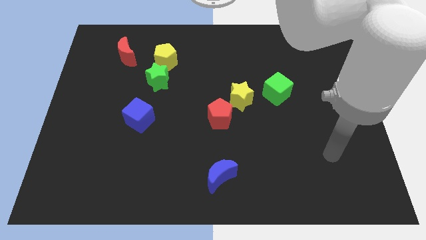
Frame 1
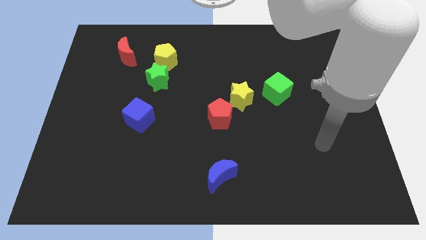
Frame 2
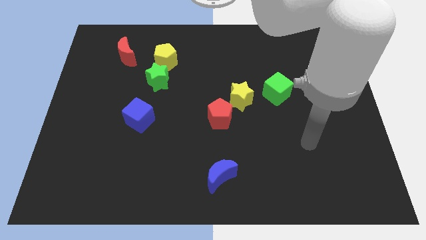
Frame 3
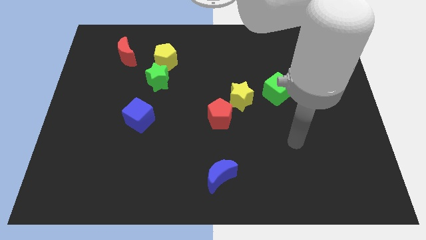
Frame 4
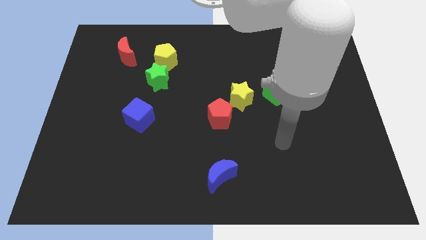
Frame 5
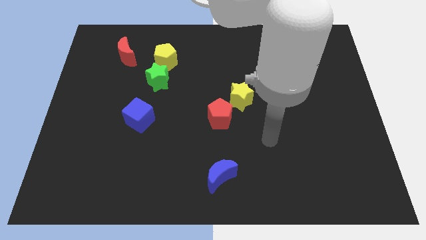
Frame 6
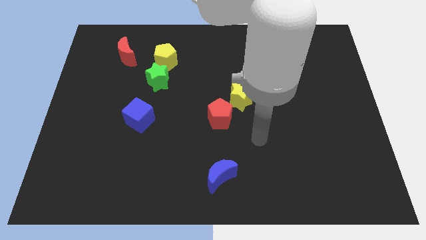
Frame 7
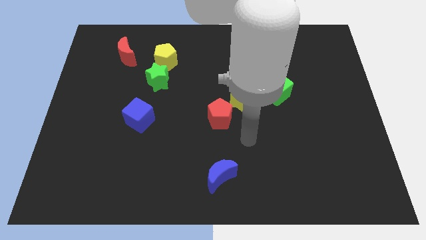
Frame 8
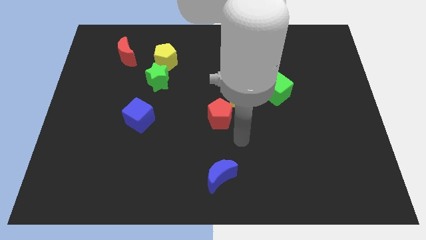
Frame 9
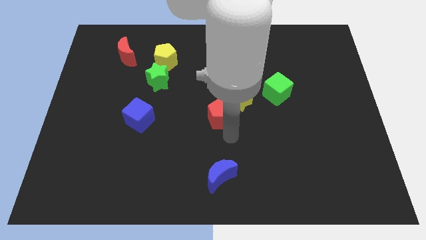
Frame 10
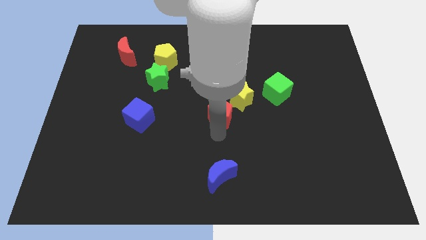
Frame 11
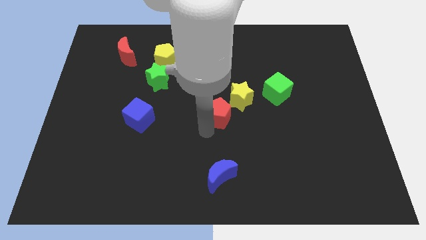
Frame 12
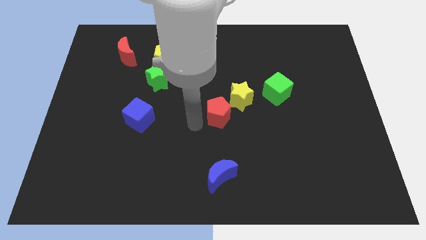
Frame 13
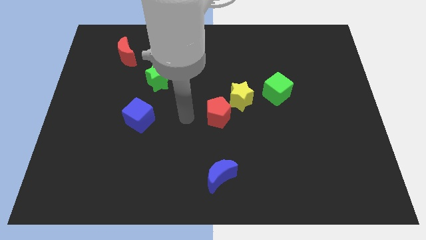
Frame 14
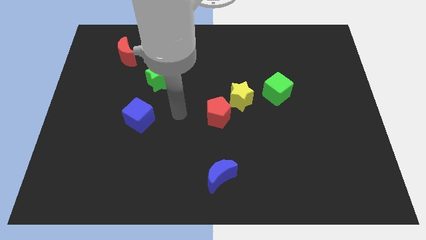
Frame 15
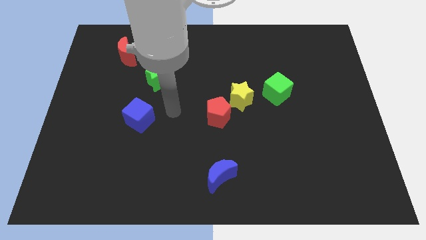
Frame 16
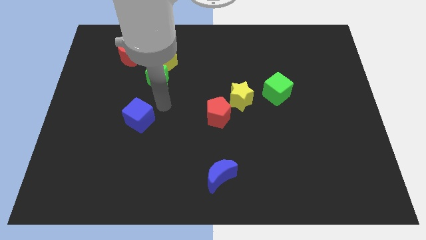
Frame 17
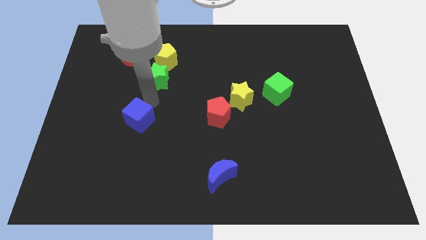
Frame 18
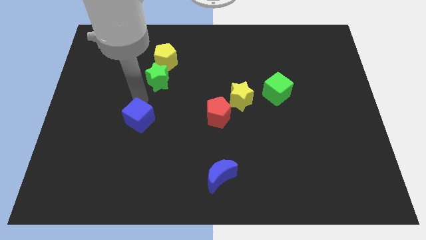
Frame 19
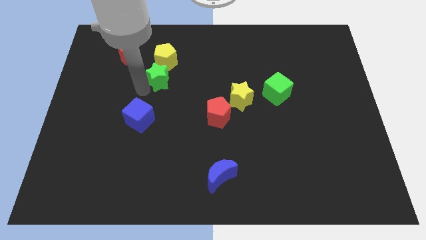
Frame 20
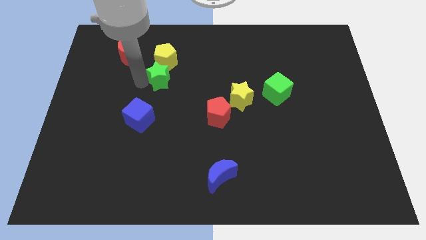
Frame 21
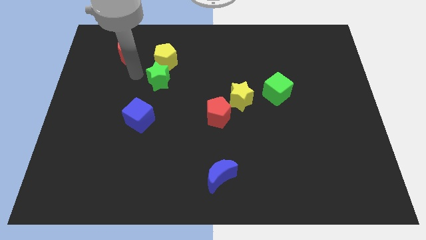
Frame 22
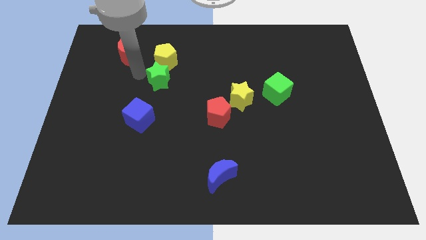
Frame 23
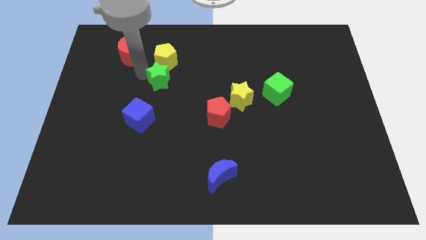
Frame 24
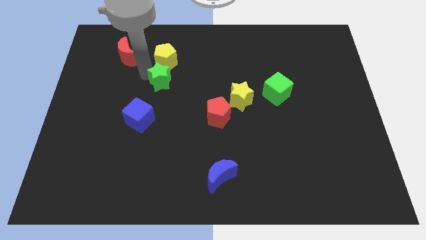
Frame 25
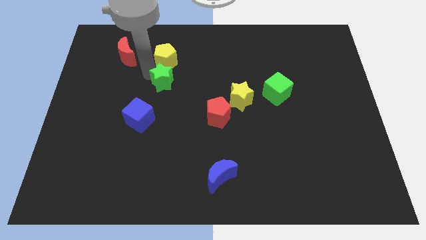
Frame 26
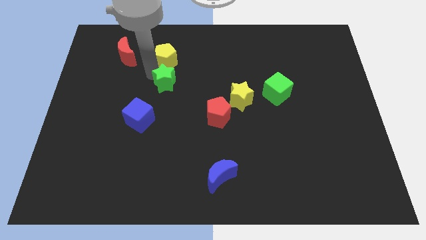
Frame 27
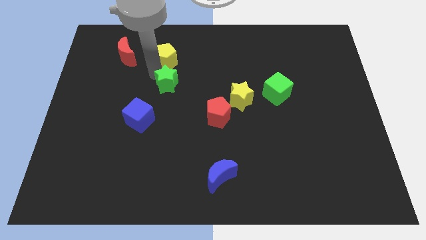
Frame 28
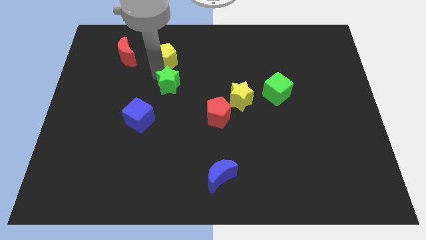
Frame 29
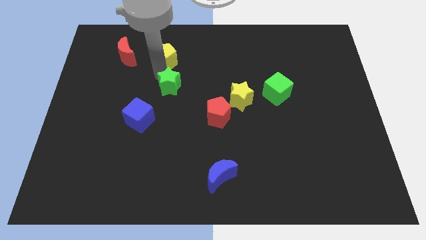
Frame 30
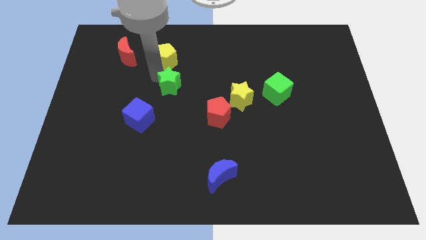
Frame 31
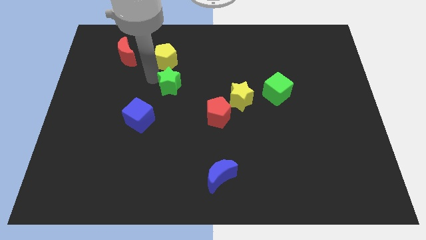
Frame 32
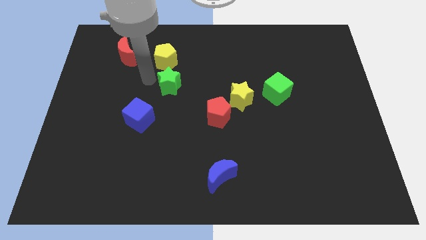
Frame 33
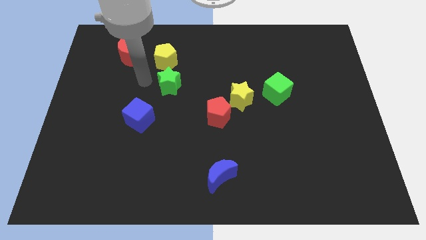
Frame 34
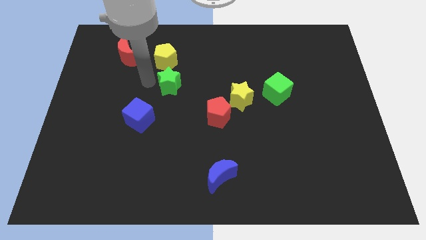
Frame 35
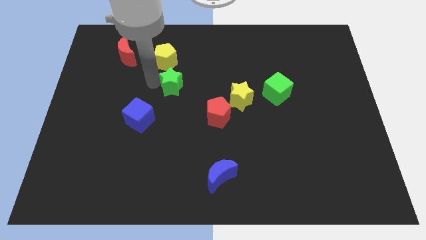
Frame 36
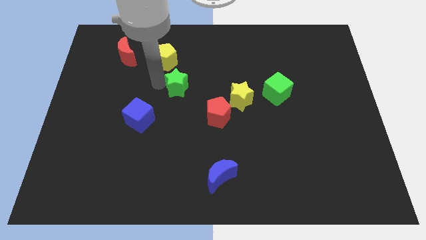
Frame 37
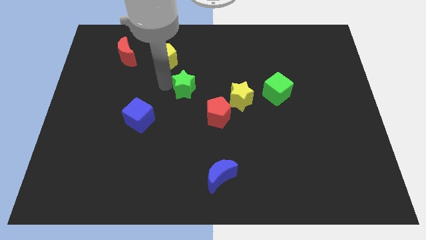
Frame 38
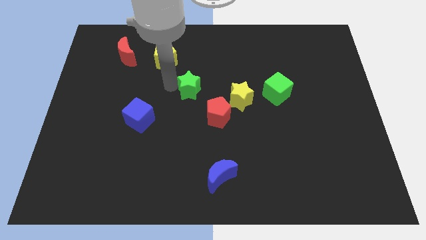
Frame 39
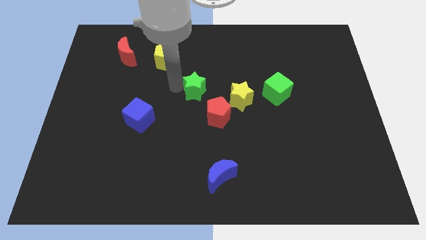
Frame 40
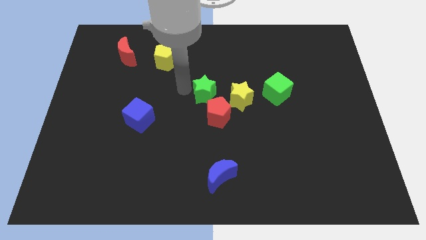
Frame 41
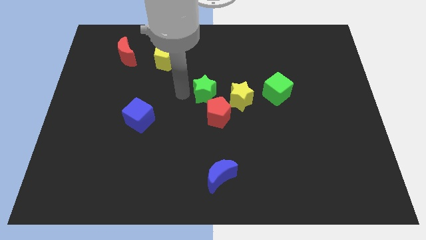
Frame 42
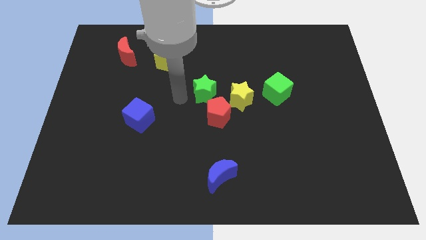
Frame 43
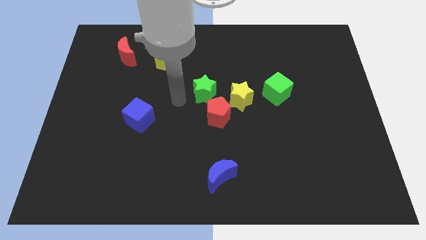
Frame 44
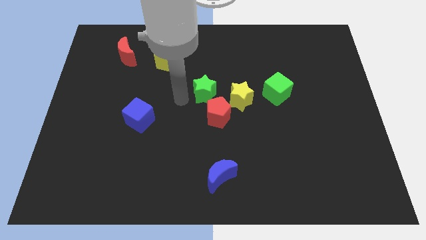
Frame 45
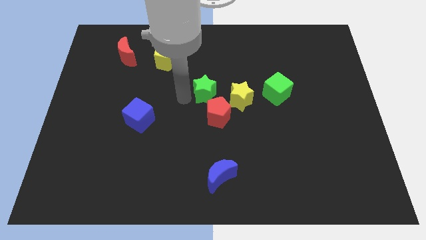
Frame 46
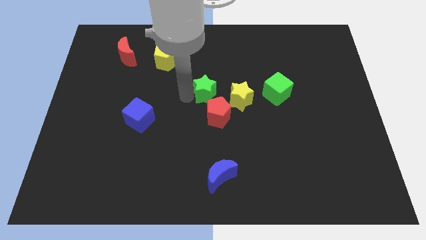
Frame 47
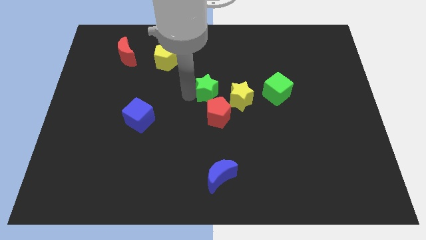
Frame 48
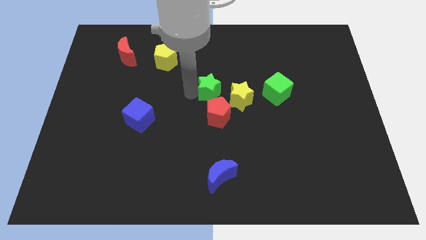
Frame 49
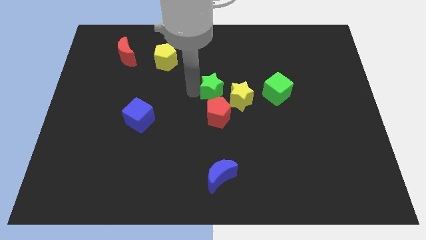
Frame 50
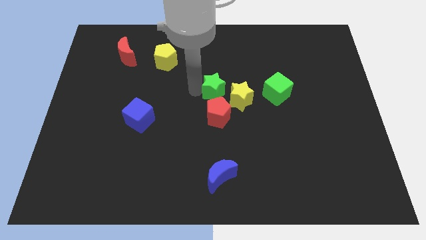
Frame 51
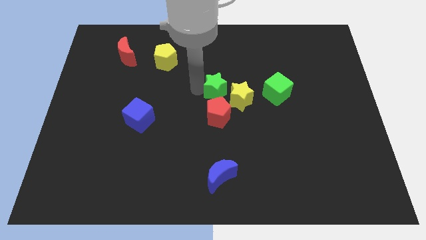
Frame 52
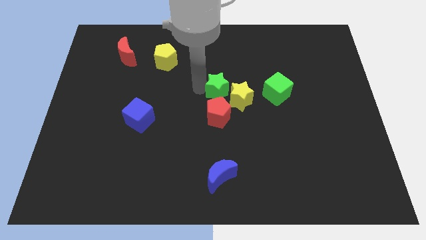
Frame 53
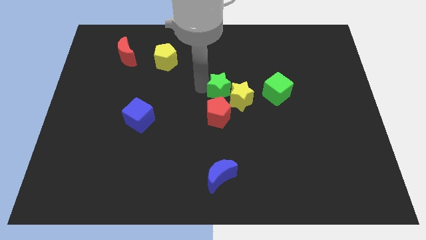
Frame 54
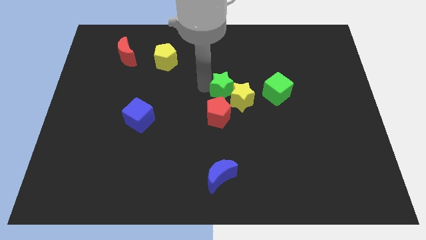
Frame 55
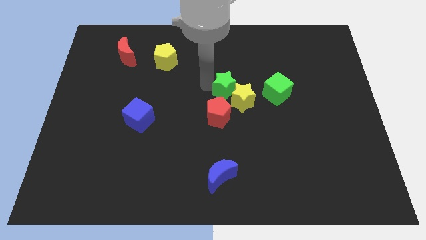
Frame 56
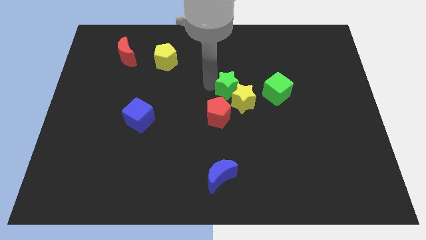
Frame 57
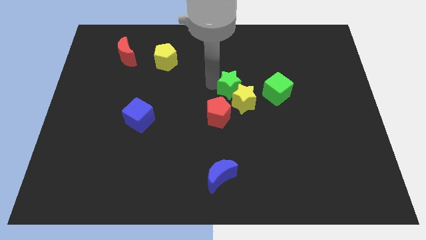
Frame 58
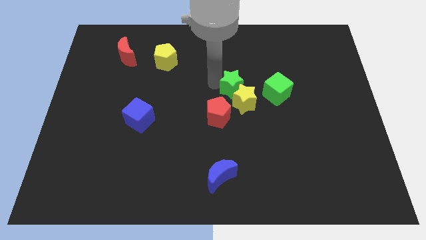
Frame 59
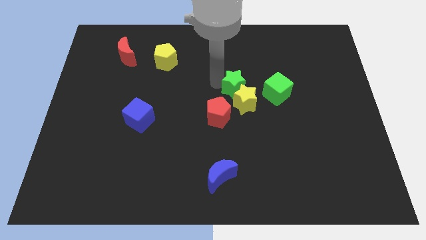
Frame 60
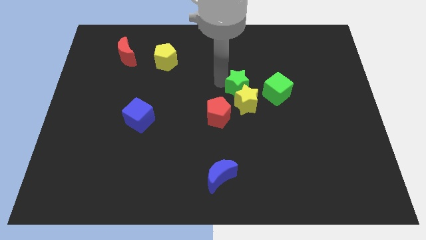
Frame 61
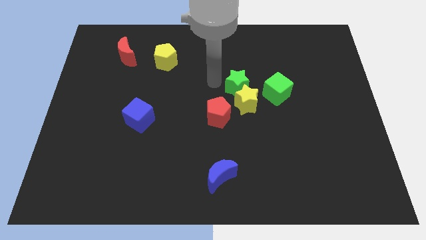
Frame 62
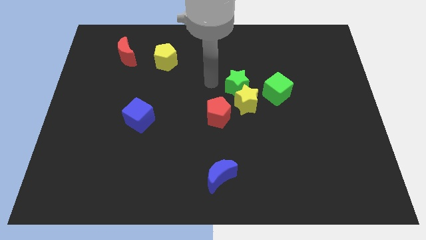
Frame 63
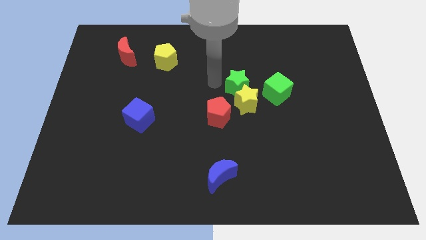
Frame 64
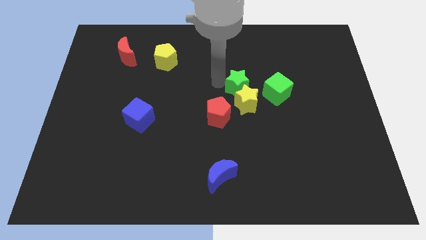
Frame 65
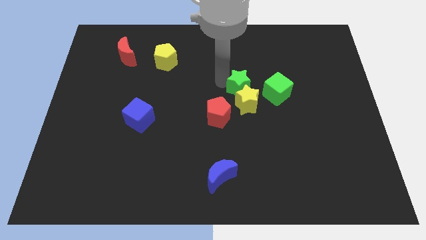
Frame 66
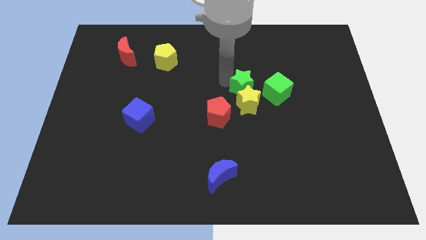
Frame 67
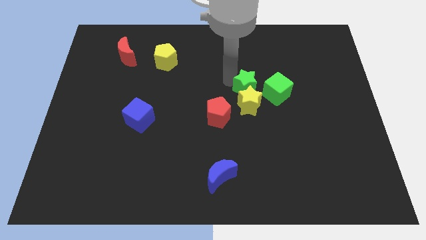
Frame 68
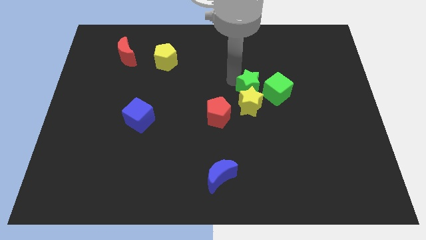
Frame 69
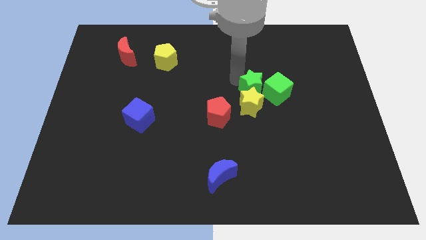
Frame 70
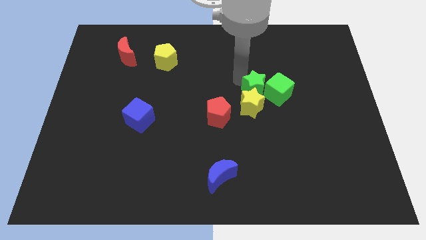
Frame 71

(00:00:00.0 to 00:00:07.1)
slide the green star to the green cube
